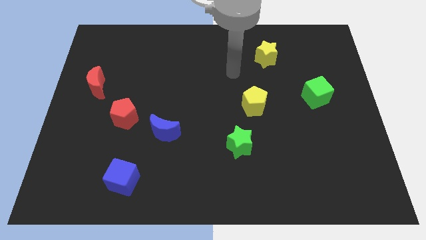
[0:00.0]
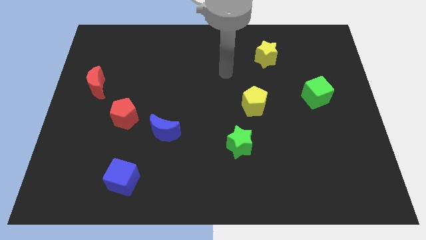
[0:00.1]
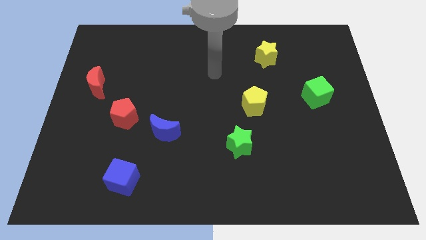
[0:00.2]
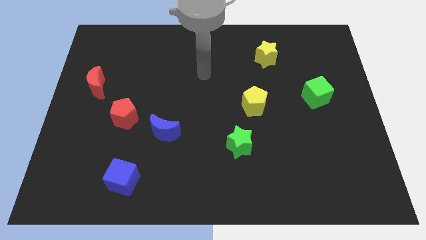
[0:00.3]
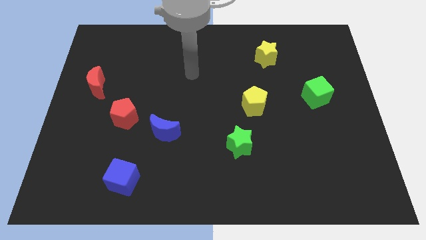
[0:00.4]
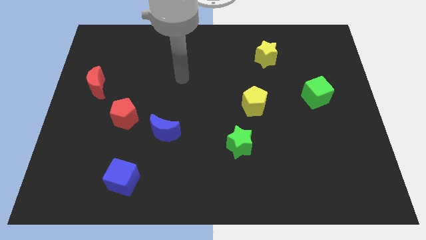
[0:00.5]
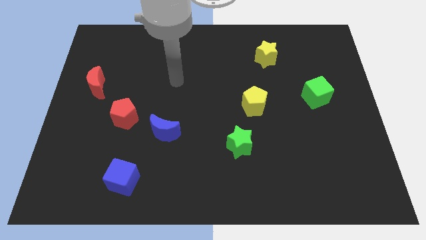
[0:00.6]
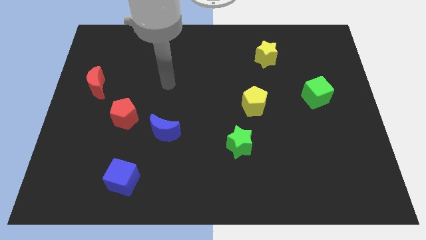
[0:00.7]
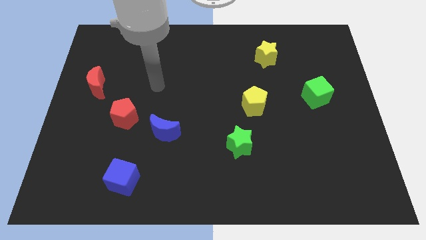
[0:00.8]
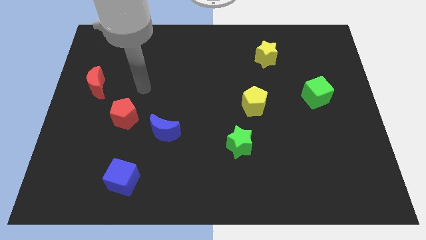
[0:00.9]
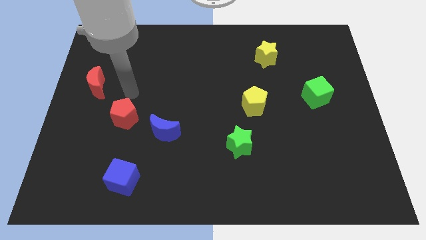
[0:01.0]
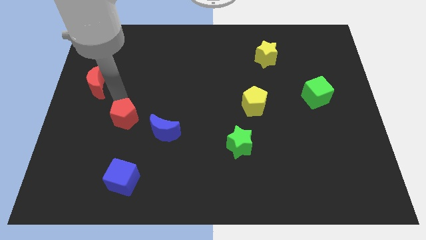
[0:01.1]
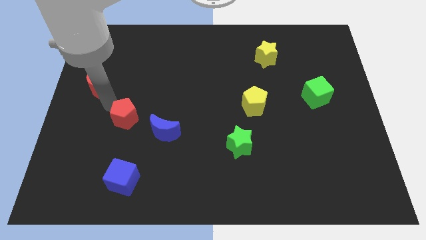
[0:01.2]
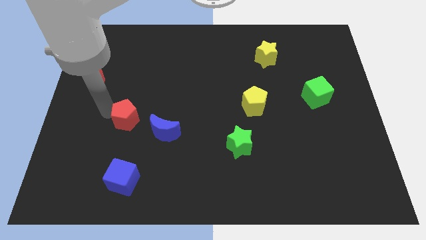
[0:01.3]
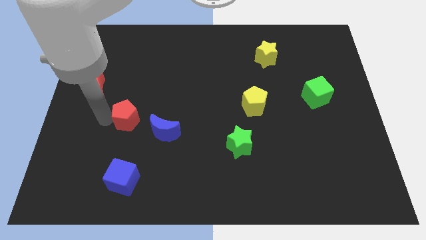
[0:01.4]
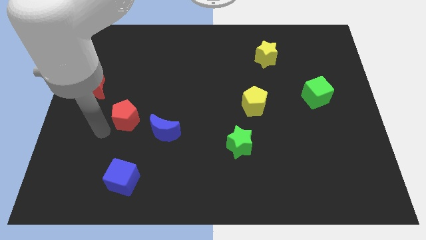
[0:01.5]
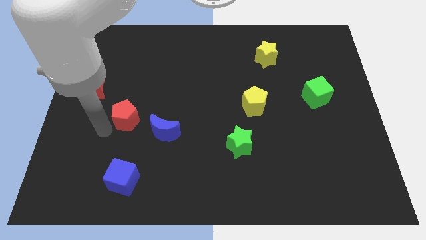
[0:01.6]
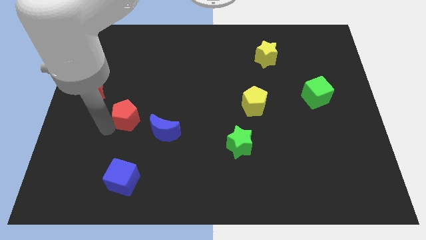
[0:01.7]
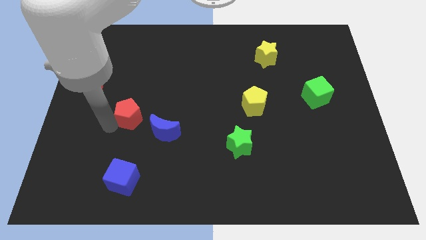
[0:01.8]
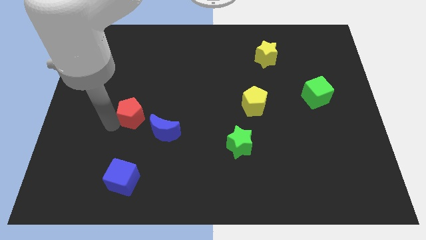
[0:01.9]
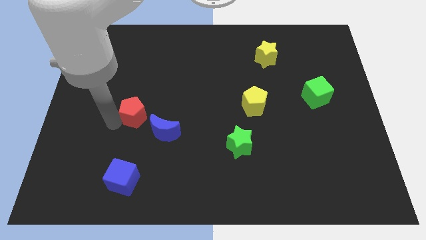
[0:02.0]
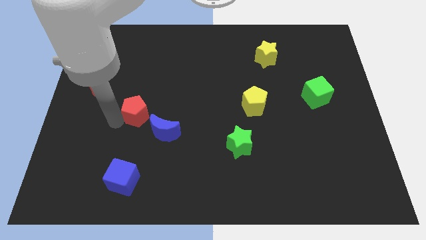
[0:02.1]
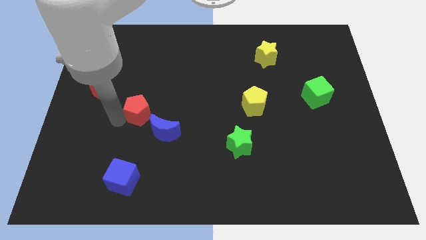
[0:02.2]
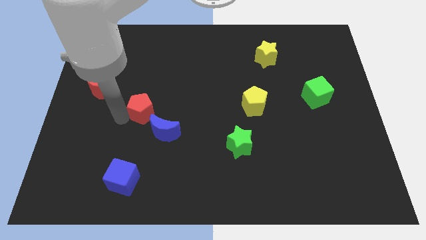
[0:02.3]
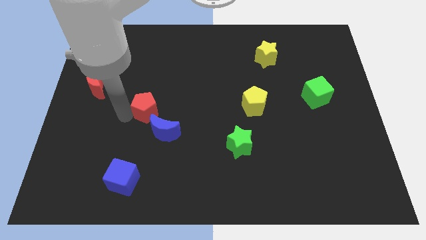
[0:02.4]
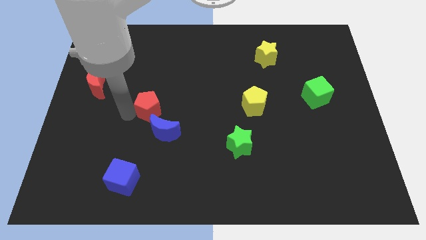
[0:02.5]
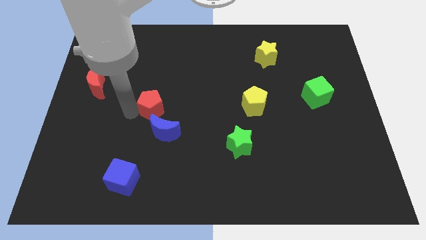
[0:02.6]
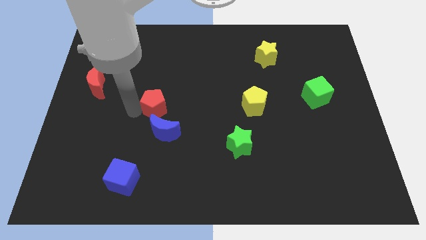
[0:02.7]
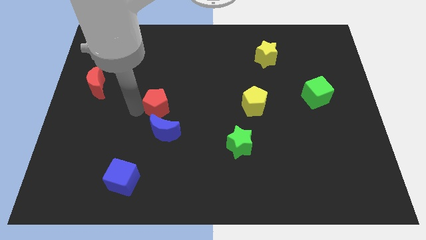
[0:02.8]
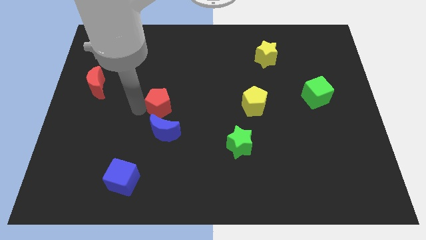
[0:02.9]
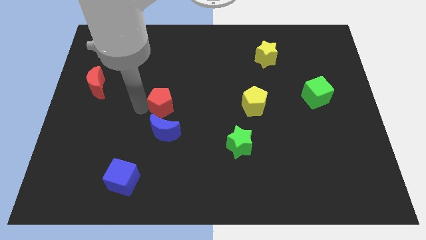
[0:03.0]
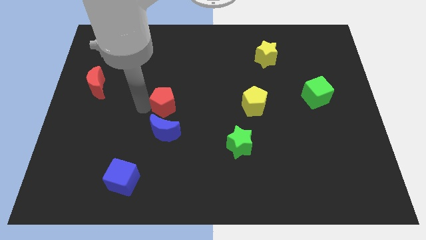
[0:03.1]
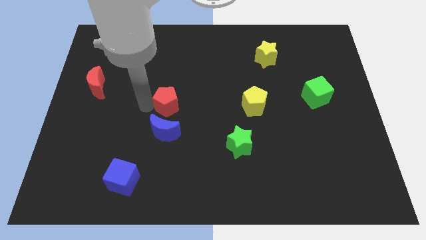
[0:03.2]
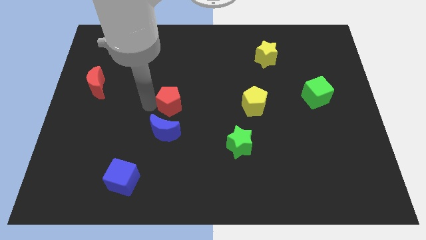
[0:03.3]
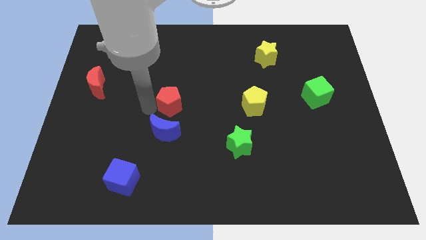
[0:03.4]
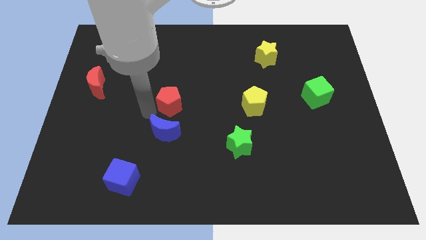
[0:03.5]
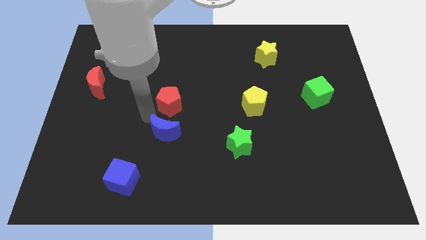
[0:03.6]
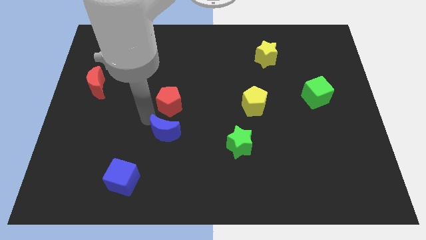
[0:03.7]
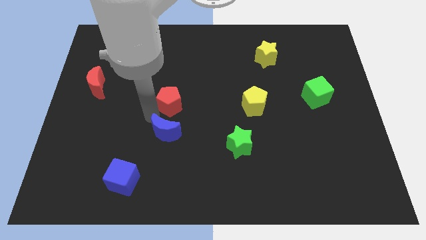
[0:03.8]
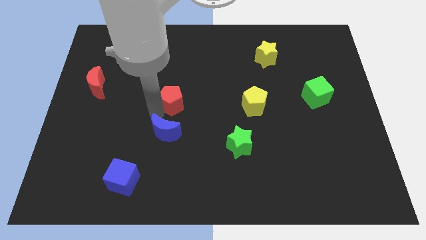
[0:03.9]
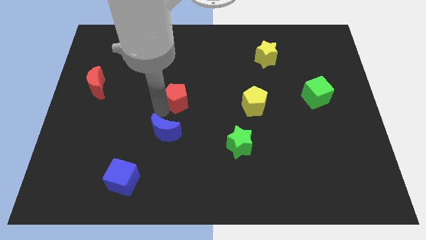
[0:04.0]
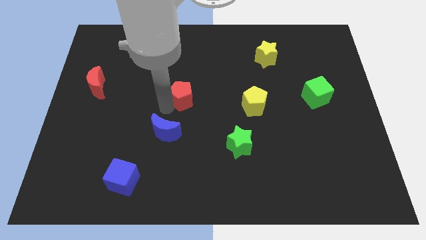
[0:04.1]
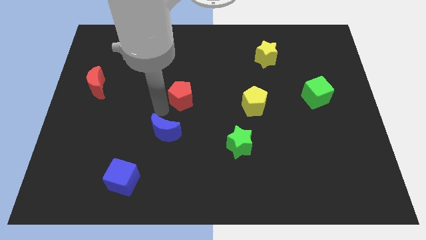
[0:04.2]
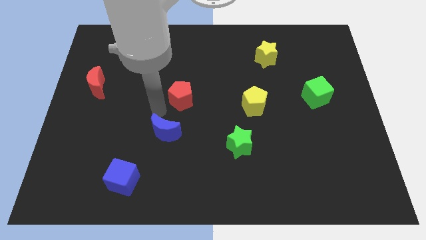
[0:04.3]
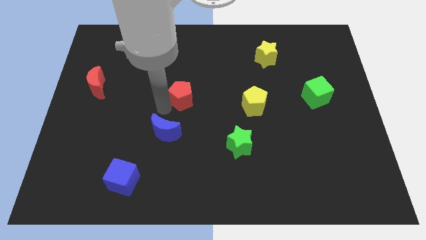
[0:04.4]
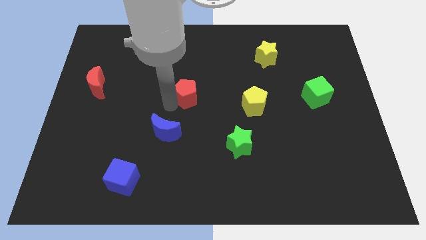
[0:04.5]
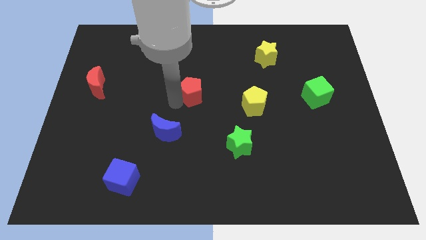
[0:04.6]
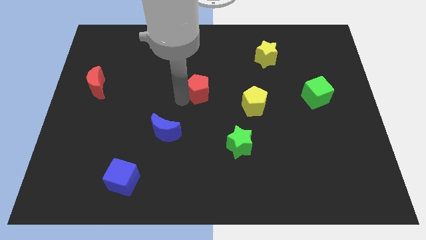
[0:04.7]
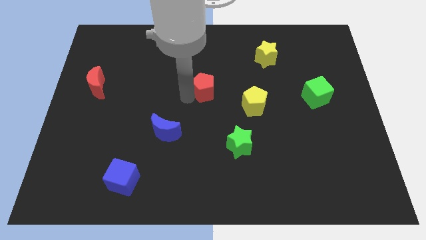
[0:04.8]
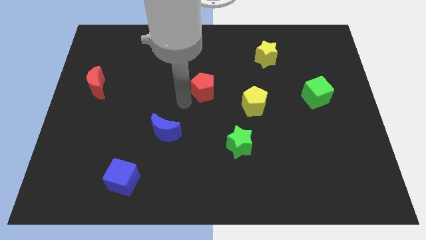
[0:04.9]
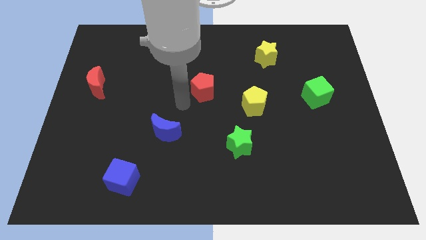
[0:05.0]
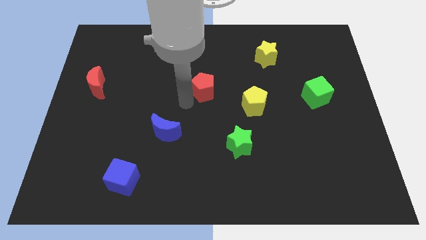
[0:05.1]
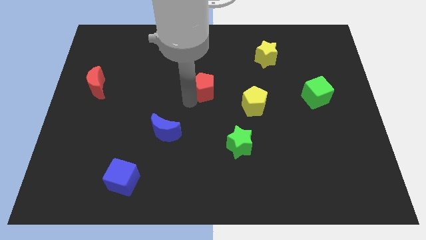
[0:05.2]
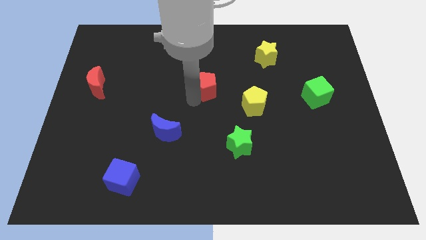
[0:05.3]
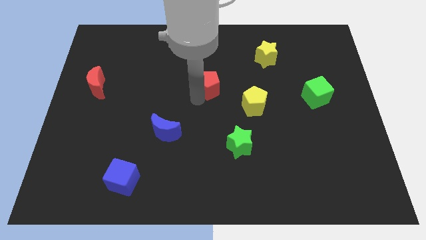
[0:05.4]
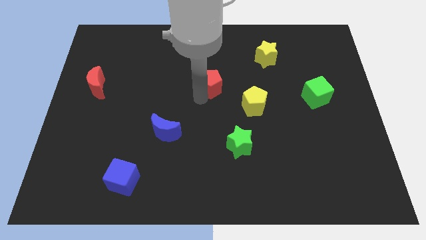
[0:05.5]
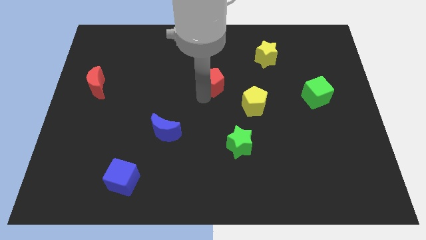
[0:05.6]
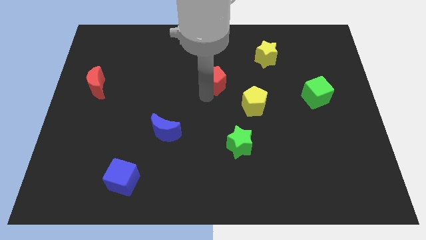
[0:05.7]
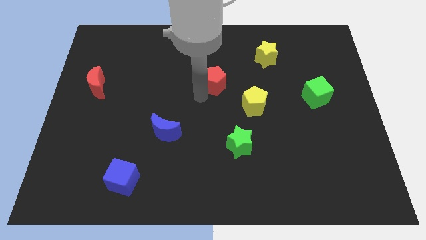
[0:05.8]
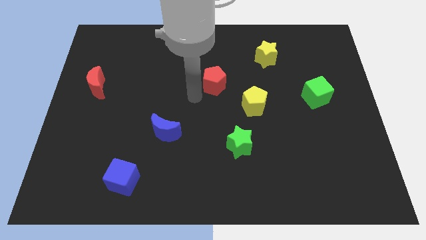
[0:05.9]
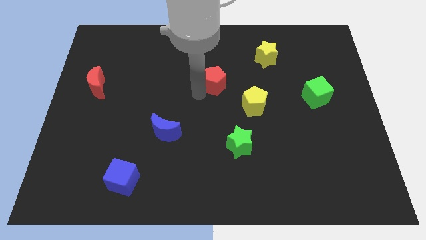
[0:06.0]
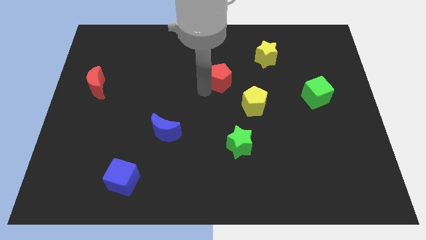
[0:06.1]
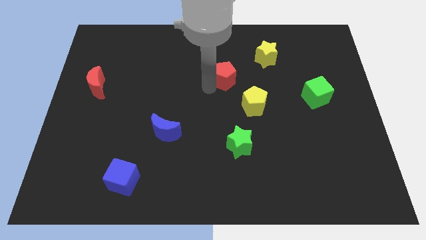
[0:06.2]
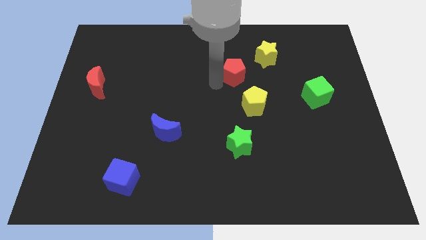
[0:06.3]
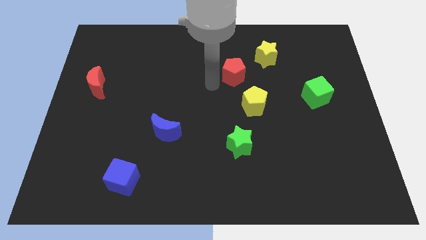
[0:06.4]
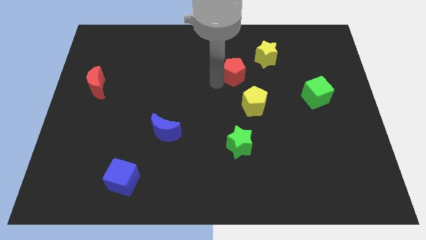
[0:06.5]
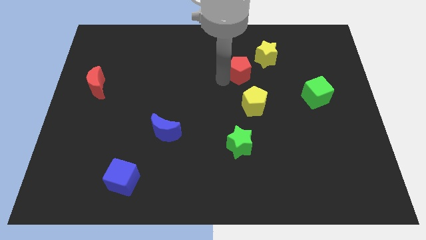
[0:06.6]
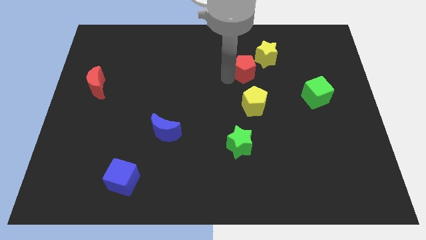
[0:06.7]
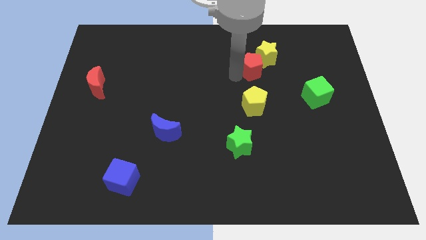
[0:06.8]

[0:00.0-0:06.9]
push the red pentagon close to the yellow star
